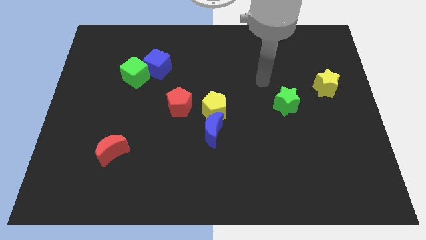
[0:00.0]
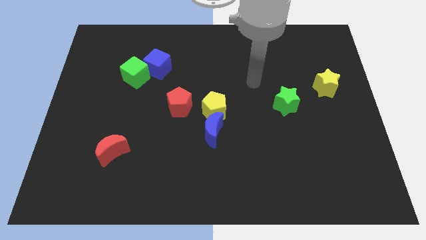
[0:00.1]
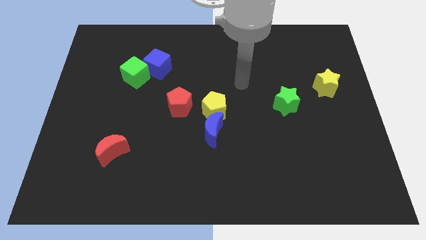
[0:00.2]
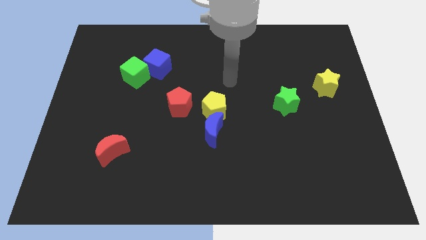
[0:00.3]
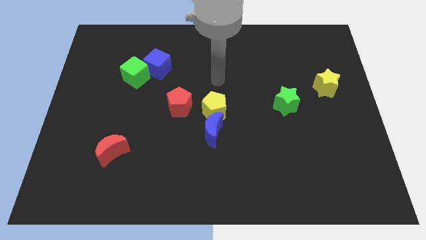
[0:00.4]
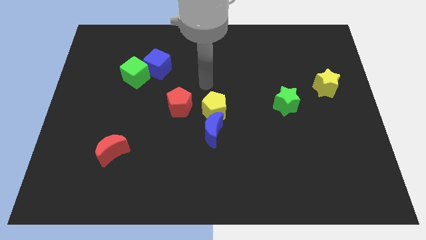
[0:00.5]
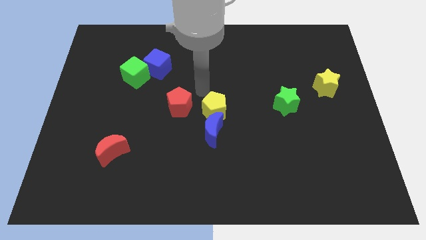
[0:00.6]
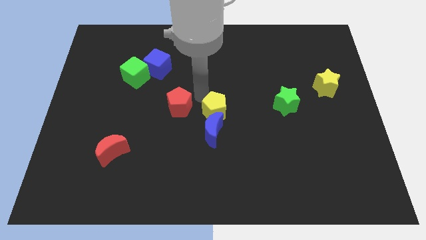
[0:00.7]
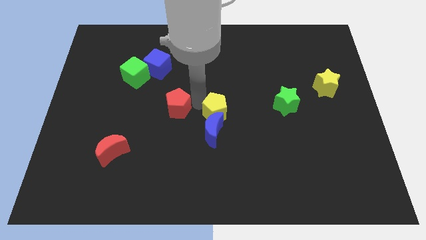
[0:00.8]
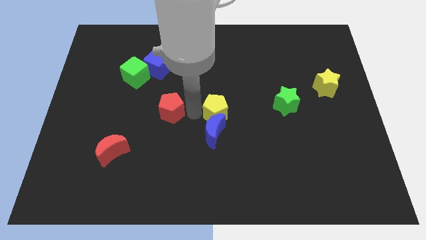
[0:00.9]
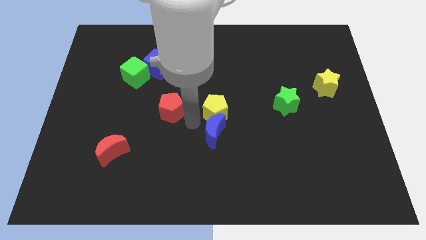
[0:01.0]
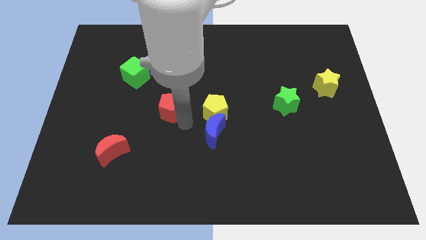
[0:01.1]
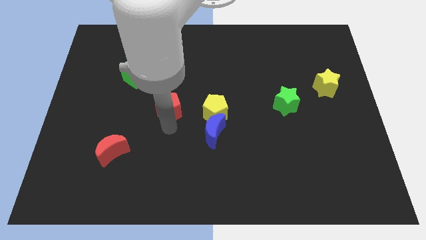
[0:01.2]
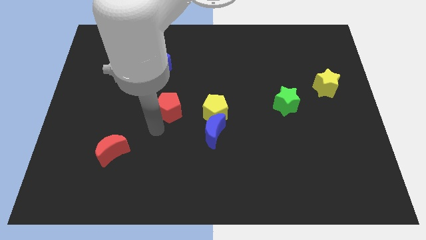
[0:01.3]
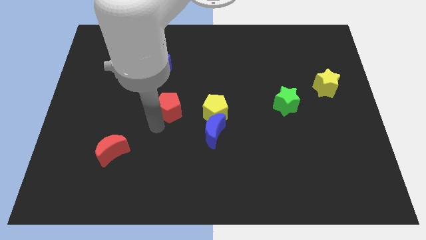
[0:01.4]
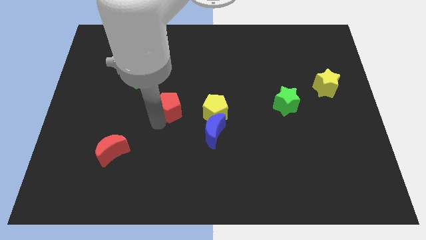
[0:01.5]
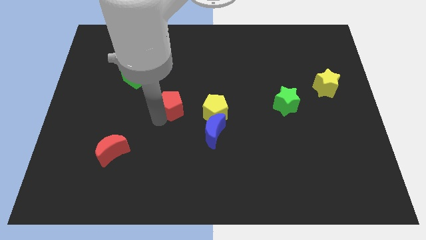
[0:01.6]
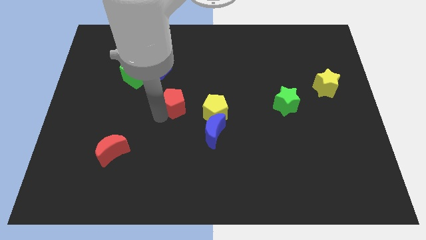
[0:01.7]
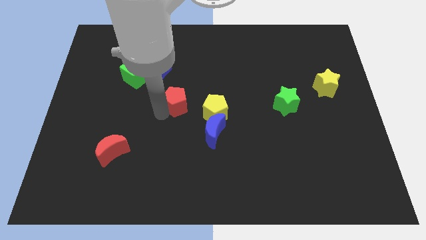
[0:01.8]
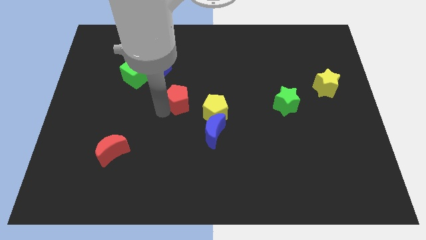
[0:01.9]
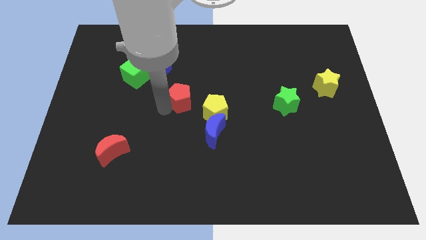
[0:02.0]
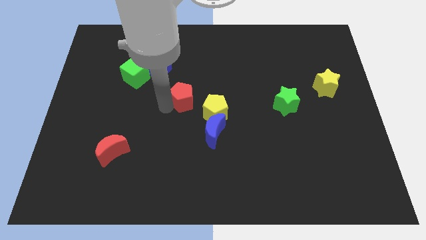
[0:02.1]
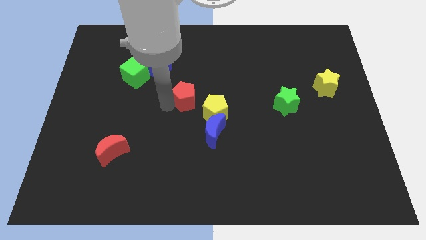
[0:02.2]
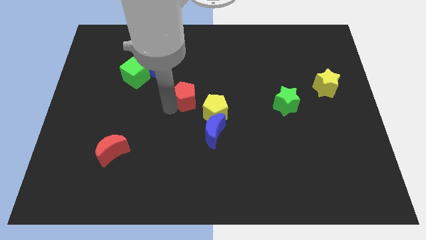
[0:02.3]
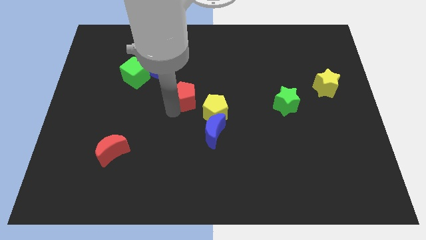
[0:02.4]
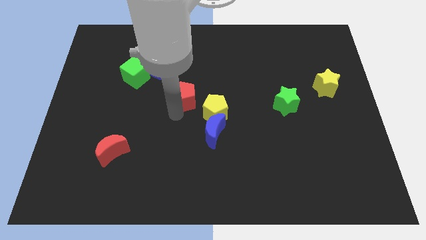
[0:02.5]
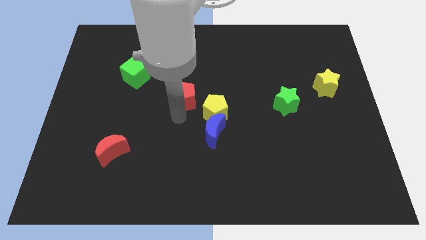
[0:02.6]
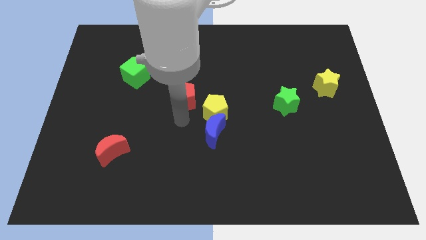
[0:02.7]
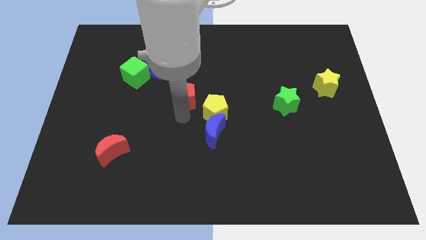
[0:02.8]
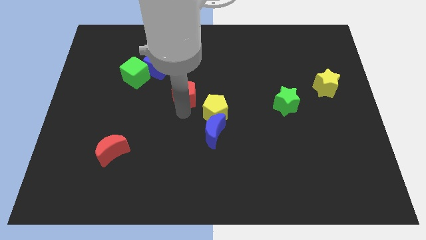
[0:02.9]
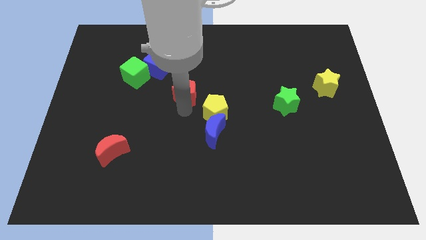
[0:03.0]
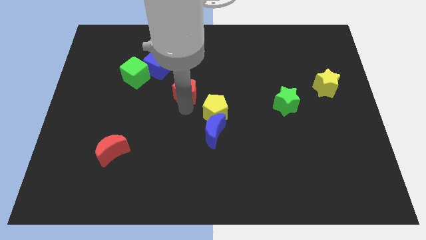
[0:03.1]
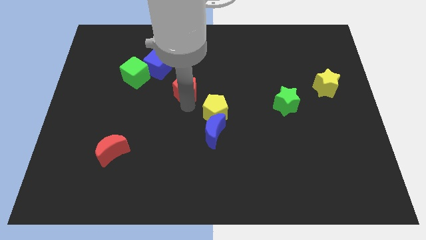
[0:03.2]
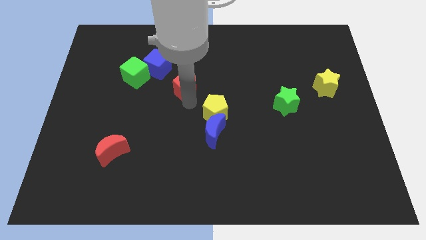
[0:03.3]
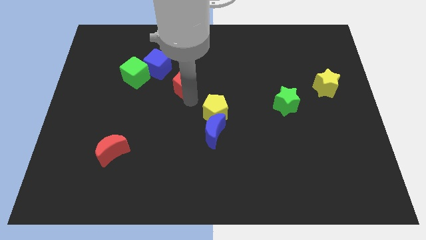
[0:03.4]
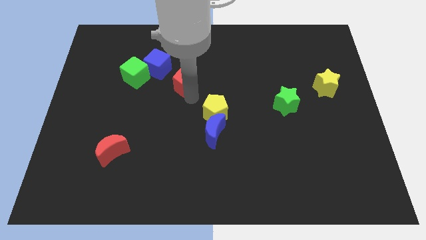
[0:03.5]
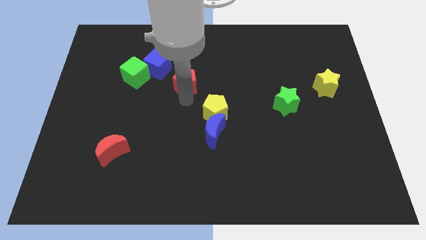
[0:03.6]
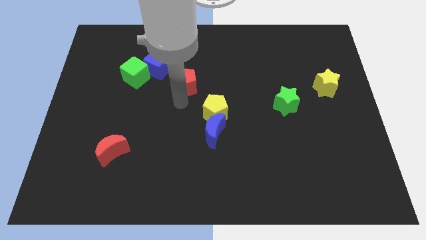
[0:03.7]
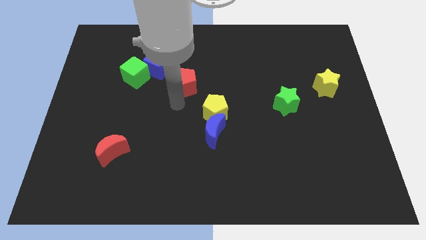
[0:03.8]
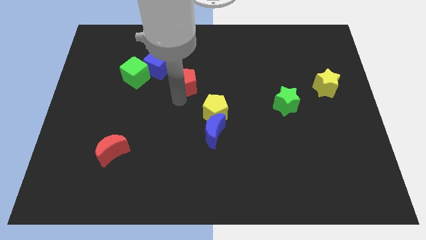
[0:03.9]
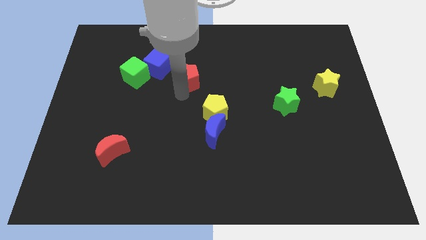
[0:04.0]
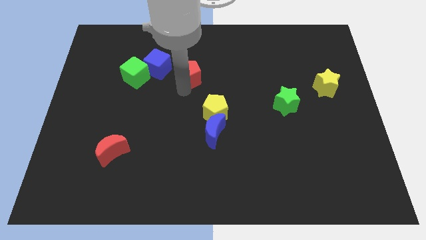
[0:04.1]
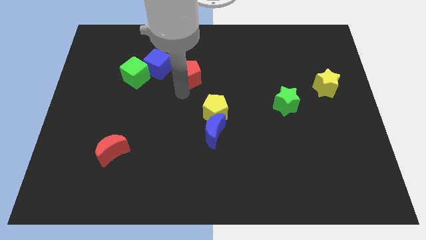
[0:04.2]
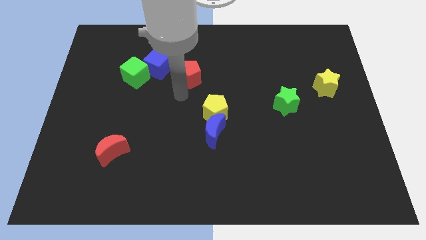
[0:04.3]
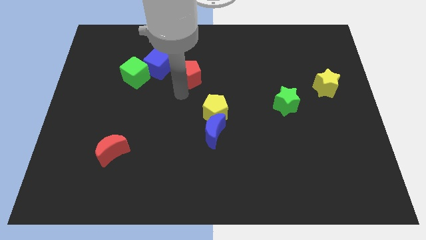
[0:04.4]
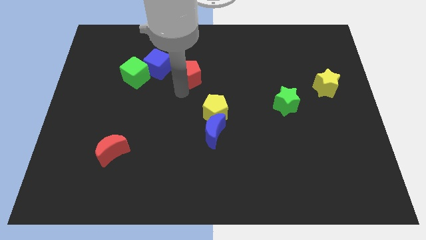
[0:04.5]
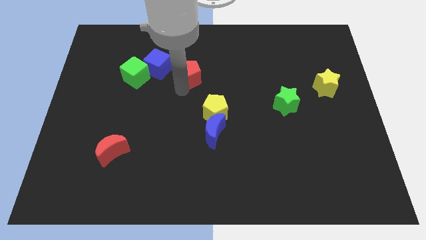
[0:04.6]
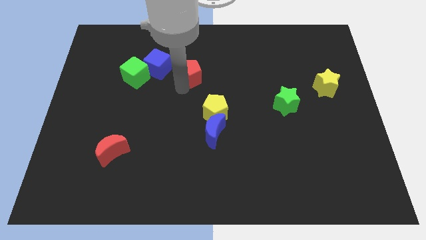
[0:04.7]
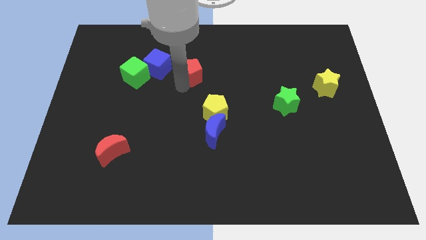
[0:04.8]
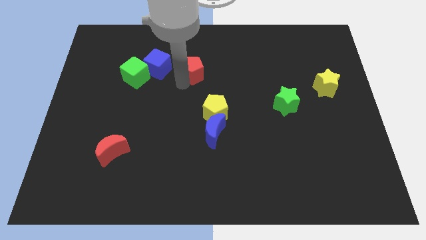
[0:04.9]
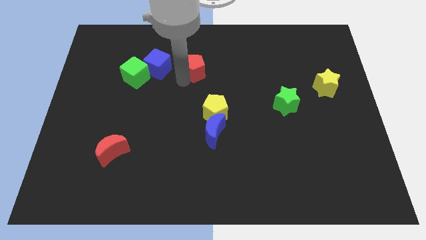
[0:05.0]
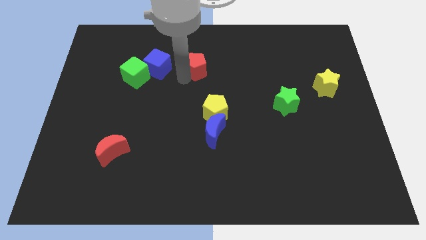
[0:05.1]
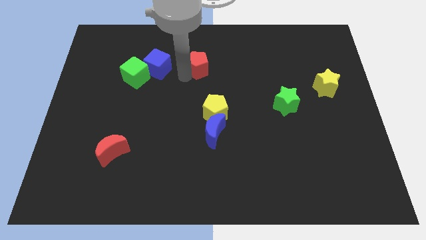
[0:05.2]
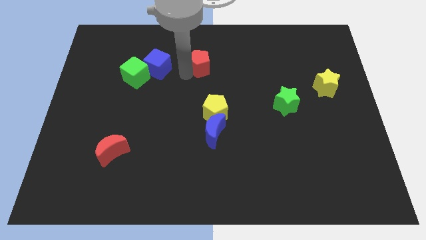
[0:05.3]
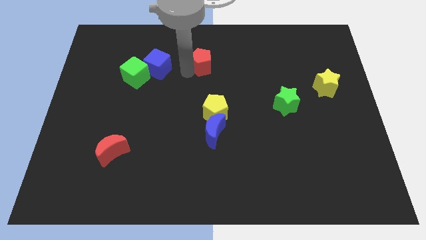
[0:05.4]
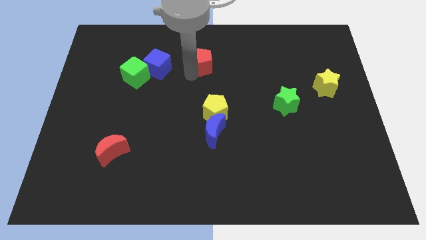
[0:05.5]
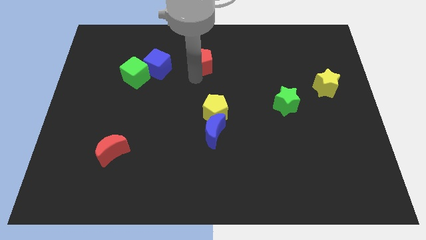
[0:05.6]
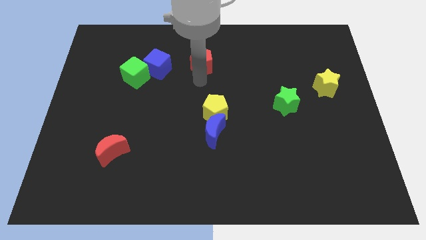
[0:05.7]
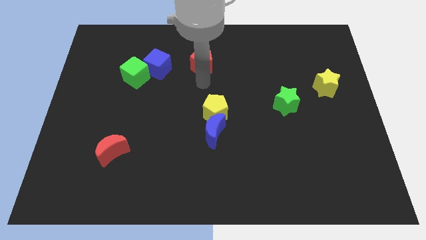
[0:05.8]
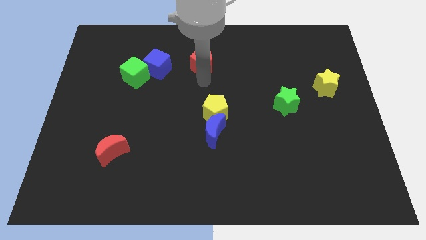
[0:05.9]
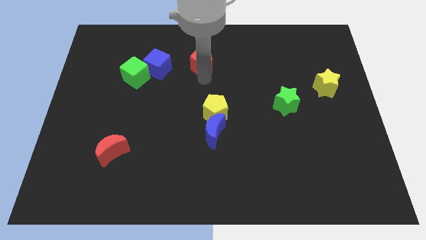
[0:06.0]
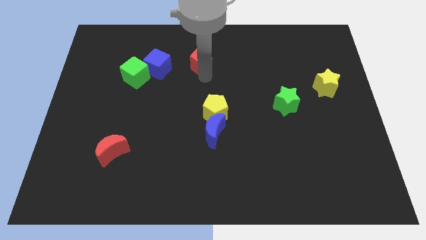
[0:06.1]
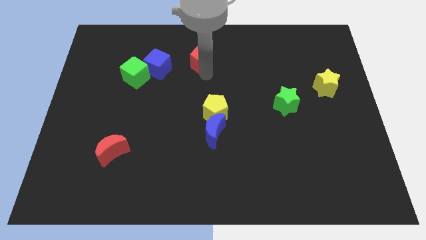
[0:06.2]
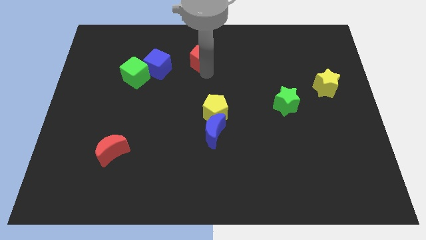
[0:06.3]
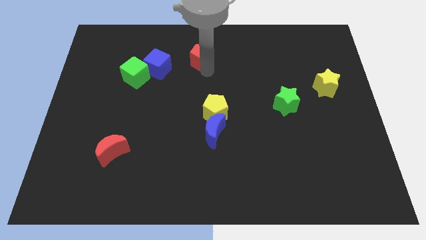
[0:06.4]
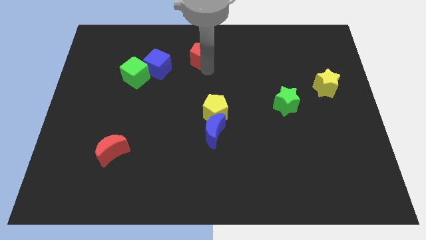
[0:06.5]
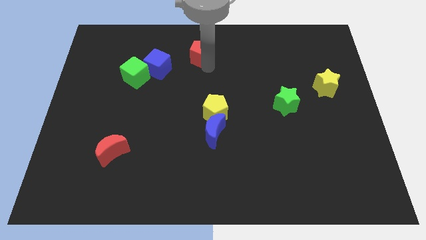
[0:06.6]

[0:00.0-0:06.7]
push the red pentagon to the towards your base
